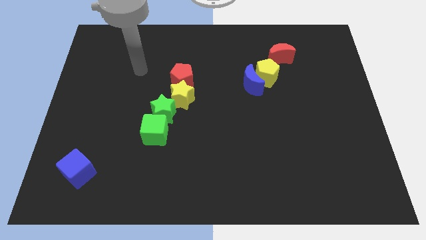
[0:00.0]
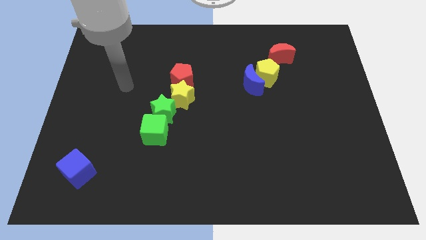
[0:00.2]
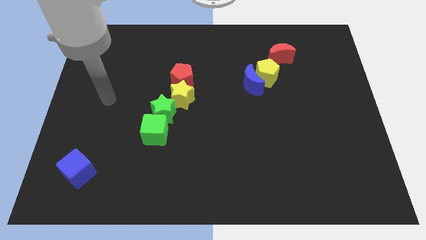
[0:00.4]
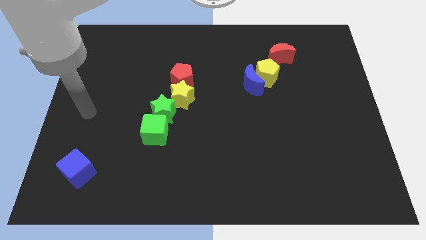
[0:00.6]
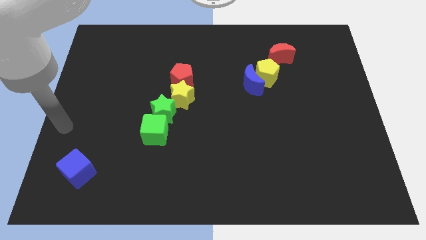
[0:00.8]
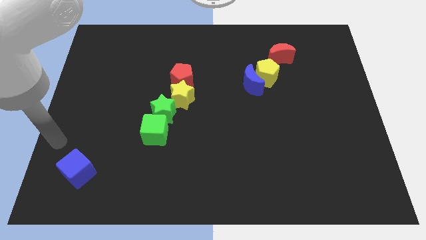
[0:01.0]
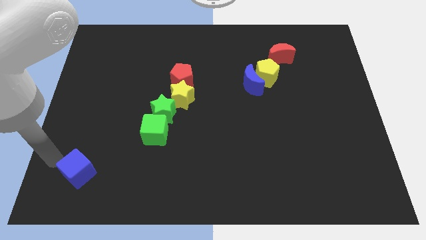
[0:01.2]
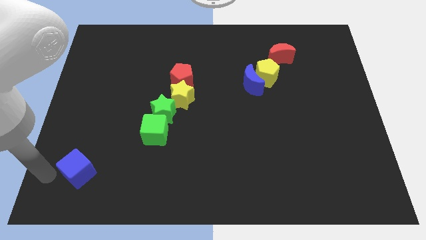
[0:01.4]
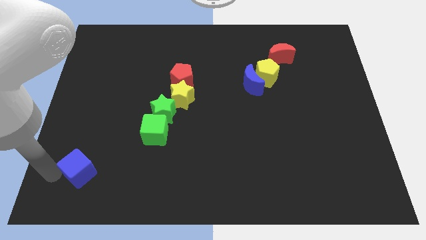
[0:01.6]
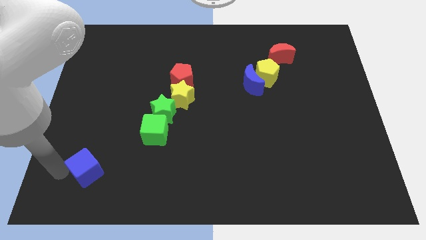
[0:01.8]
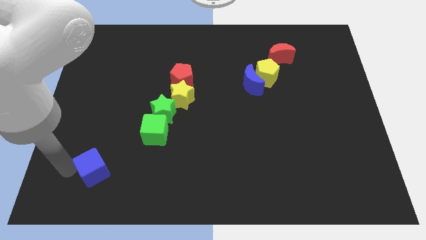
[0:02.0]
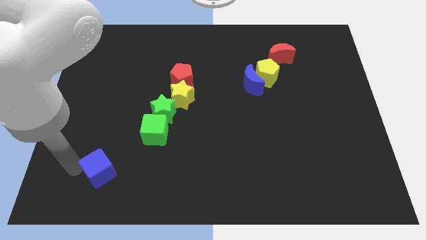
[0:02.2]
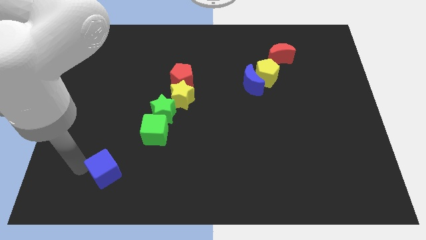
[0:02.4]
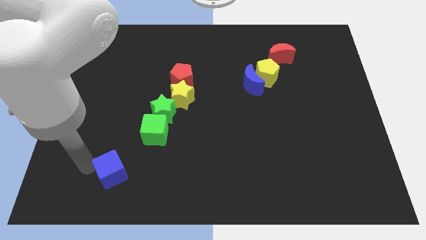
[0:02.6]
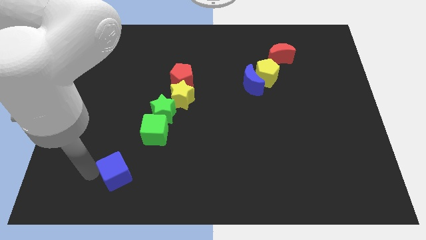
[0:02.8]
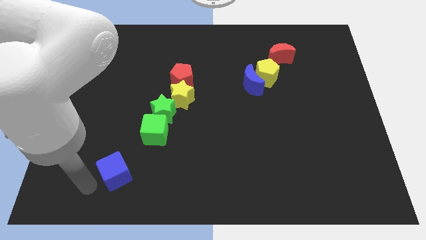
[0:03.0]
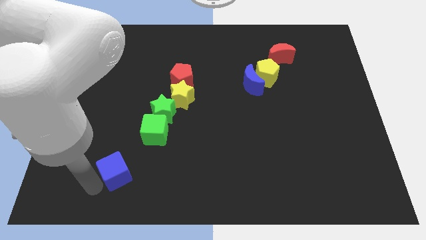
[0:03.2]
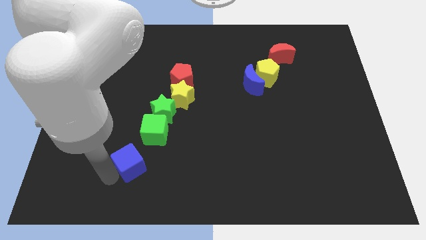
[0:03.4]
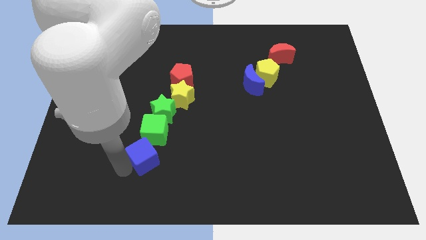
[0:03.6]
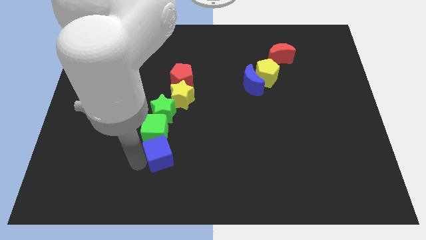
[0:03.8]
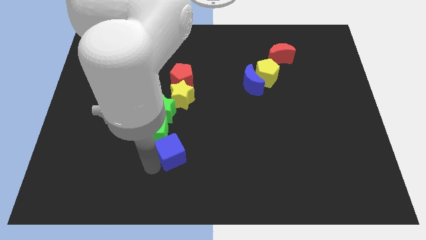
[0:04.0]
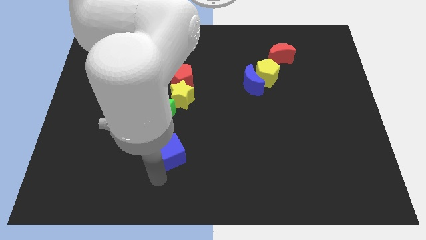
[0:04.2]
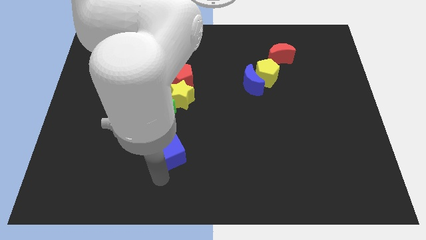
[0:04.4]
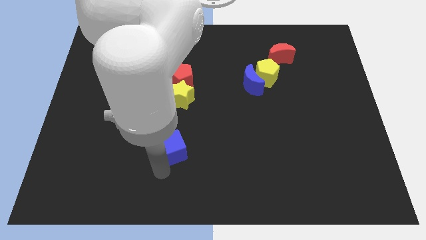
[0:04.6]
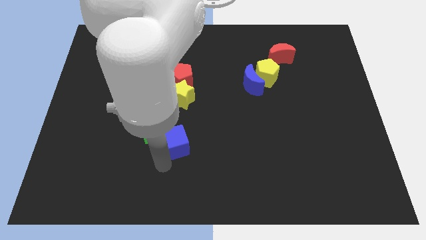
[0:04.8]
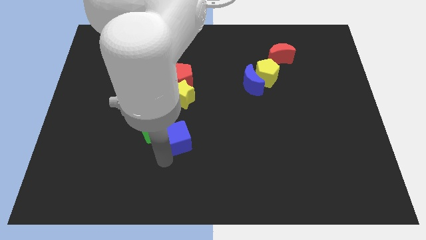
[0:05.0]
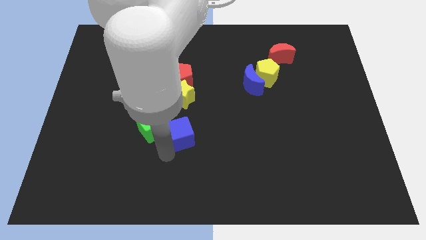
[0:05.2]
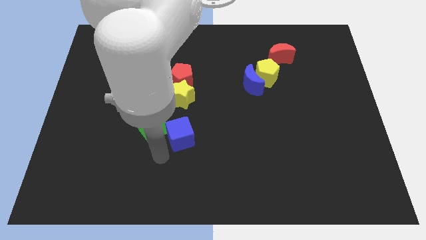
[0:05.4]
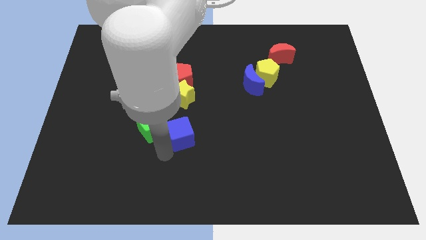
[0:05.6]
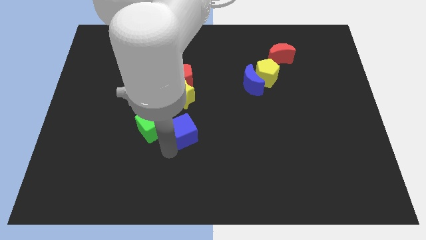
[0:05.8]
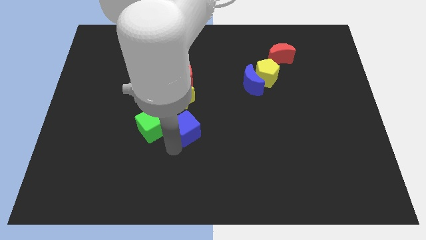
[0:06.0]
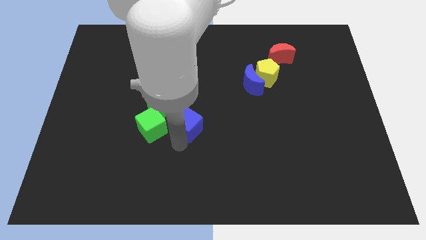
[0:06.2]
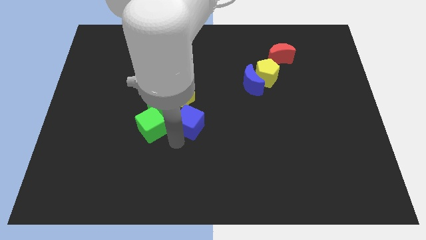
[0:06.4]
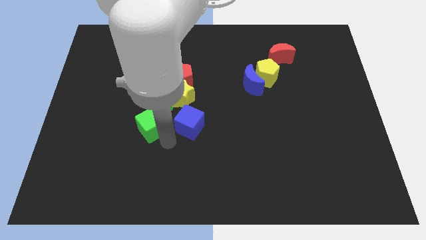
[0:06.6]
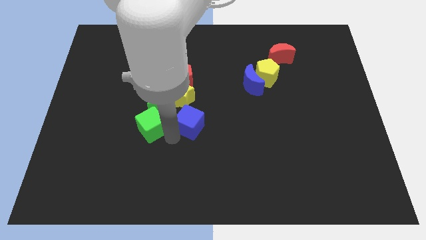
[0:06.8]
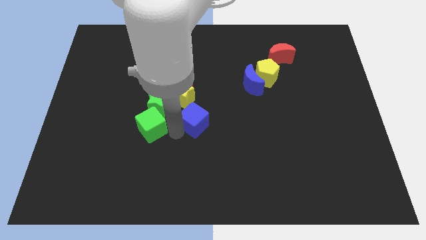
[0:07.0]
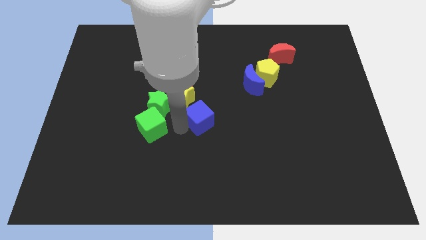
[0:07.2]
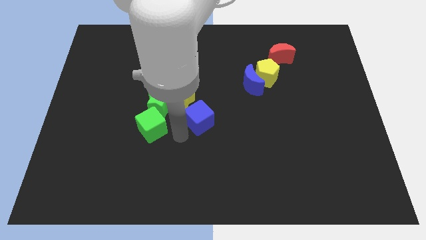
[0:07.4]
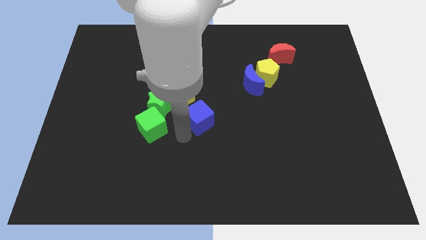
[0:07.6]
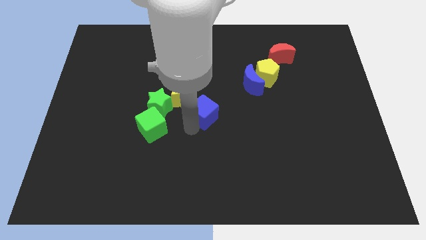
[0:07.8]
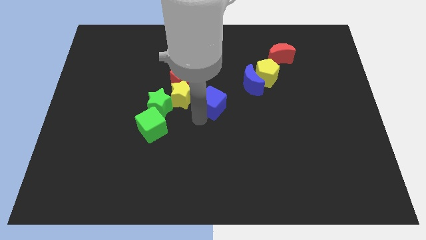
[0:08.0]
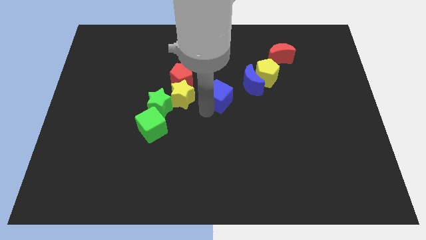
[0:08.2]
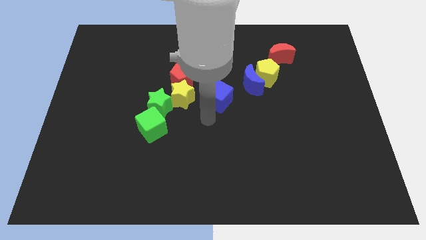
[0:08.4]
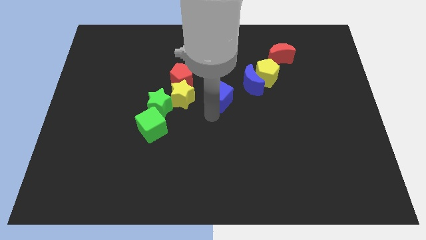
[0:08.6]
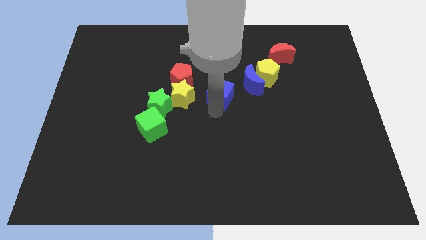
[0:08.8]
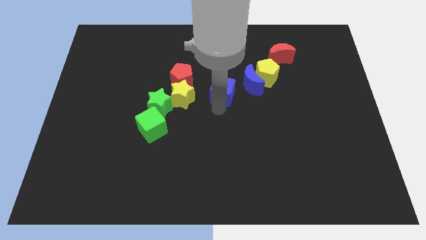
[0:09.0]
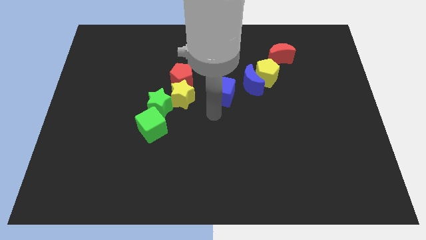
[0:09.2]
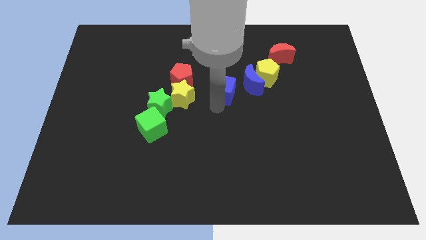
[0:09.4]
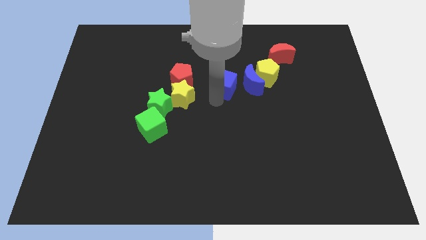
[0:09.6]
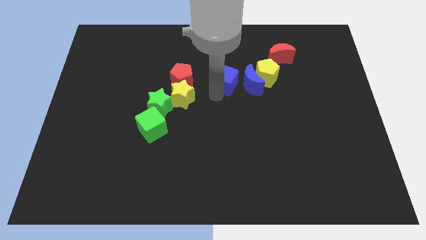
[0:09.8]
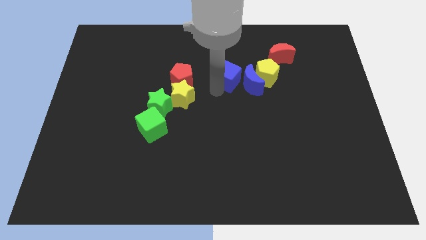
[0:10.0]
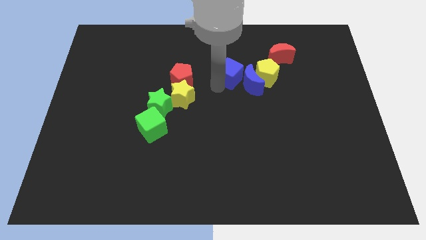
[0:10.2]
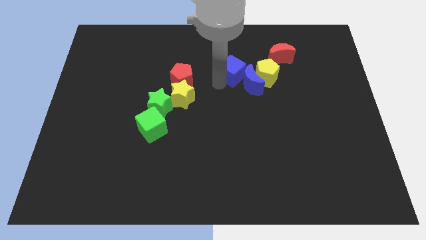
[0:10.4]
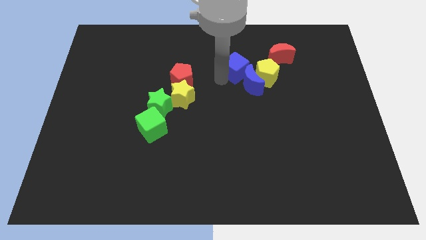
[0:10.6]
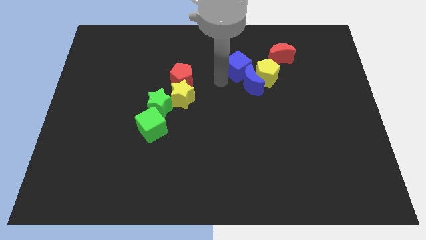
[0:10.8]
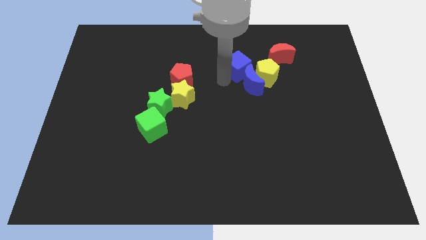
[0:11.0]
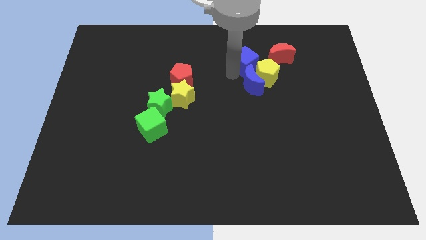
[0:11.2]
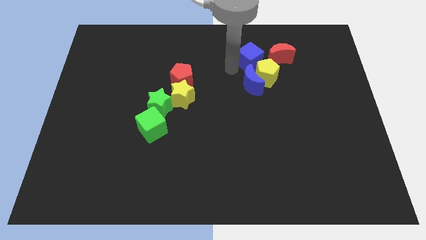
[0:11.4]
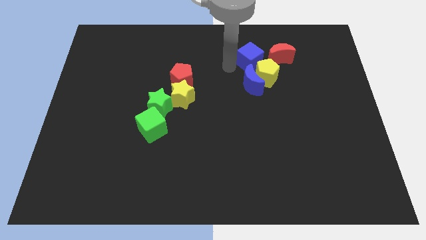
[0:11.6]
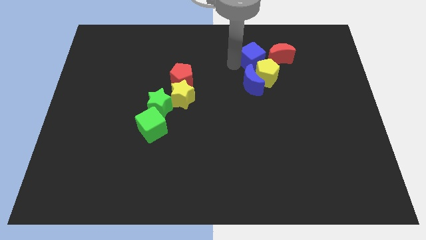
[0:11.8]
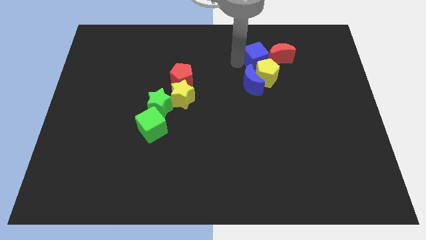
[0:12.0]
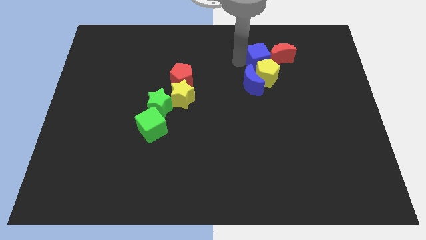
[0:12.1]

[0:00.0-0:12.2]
put the blue cube close to the red moon

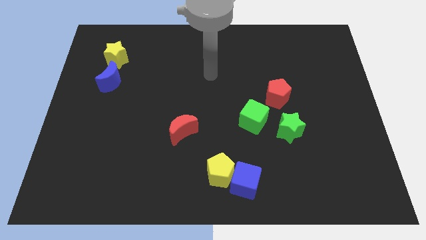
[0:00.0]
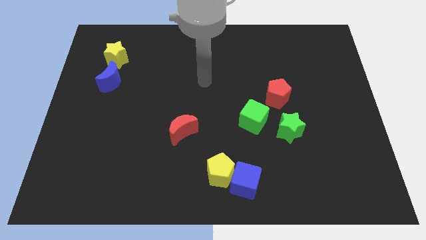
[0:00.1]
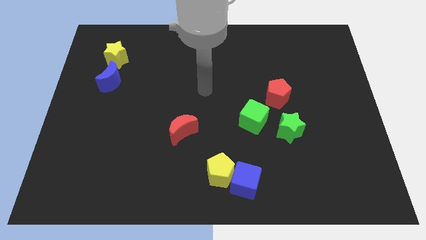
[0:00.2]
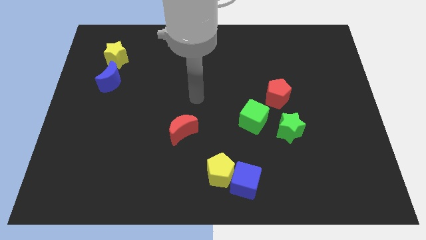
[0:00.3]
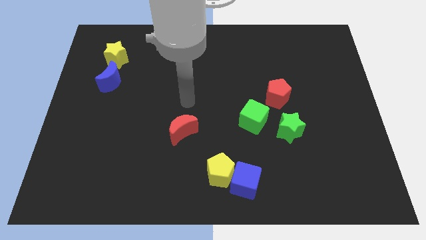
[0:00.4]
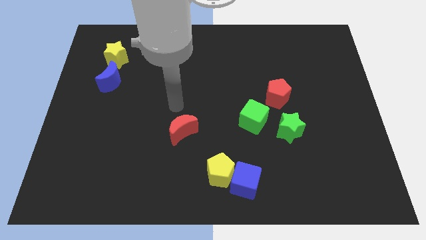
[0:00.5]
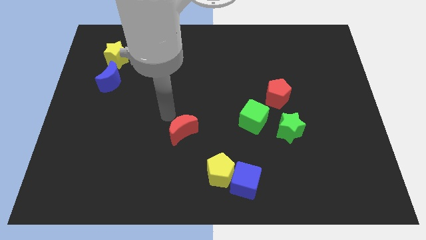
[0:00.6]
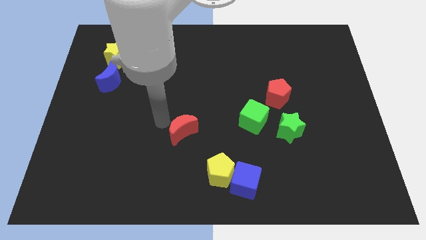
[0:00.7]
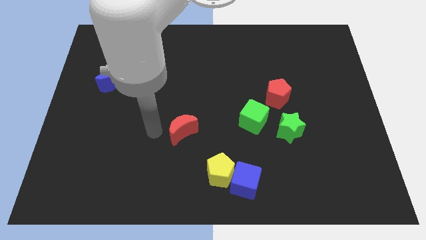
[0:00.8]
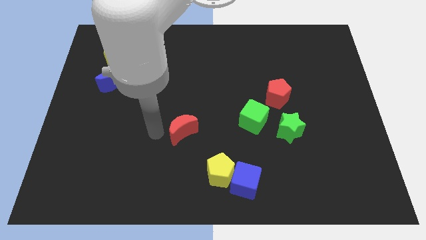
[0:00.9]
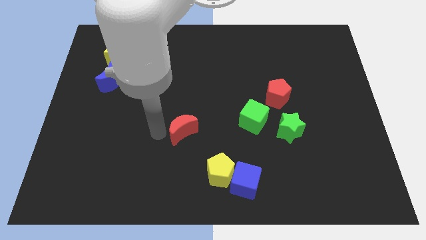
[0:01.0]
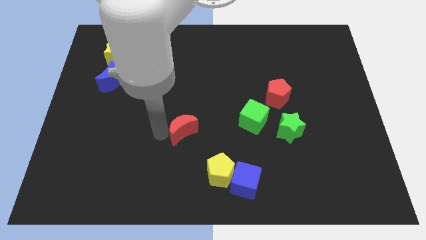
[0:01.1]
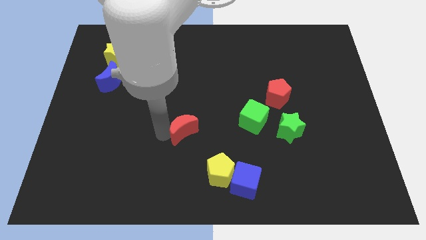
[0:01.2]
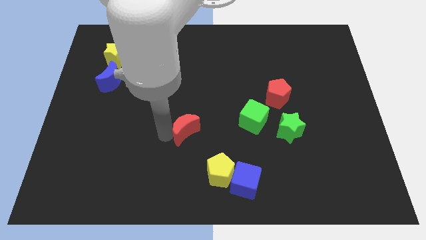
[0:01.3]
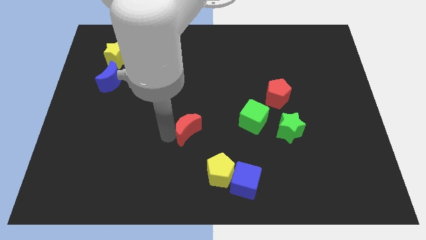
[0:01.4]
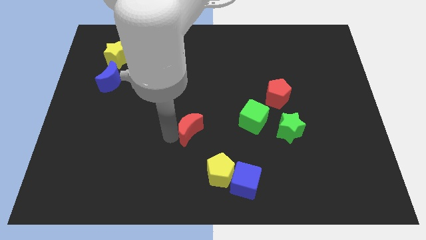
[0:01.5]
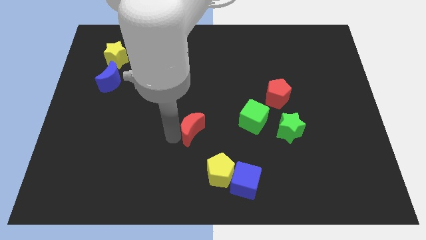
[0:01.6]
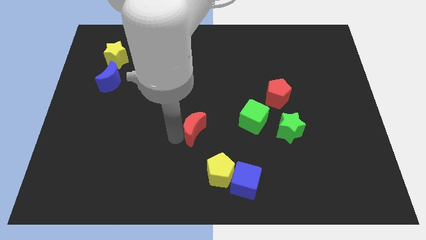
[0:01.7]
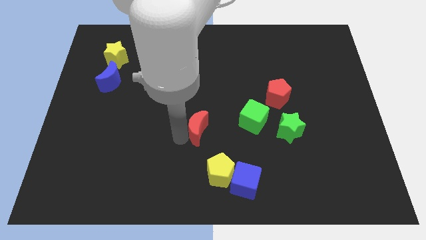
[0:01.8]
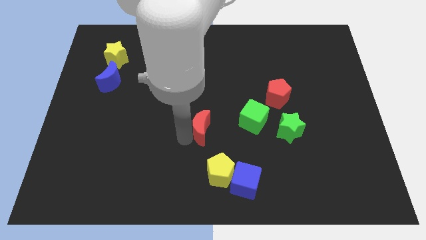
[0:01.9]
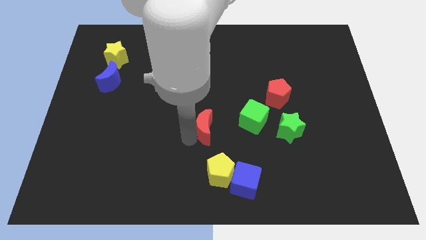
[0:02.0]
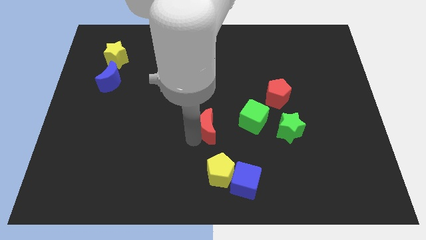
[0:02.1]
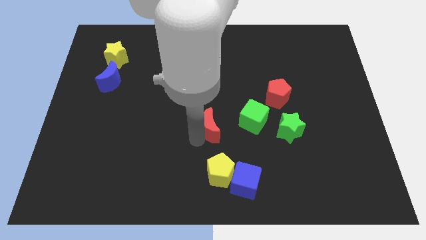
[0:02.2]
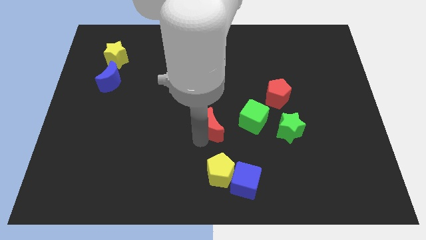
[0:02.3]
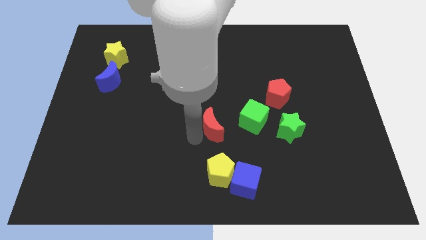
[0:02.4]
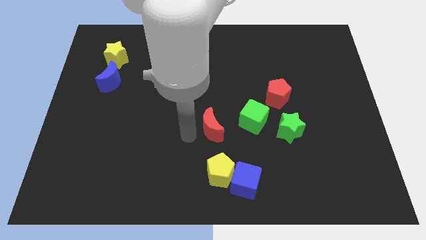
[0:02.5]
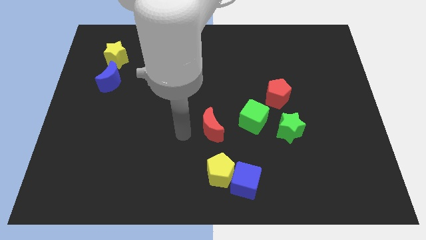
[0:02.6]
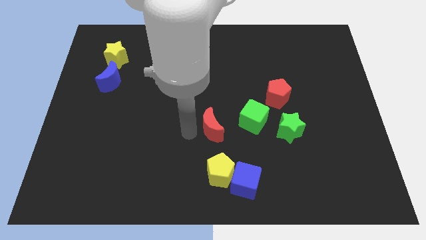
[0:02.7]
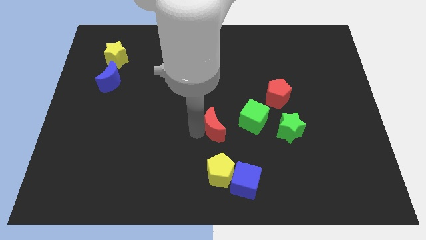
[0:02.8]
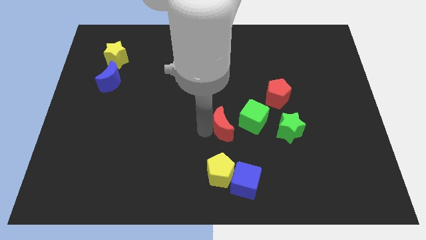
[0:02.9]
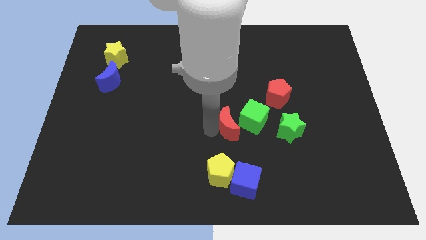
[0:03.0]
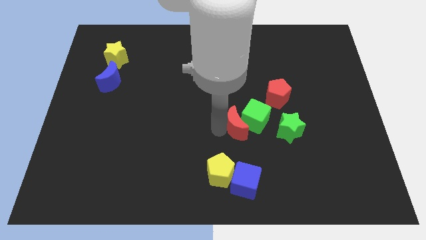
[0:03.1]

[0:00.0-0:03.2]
slide the red moon next to the green cube
